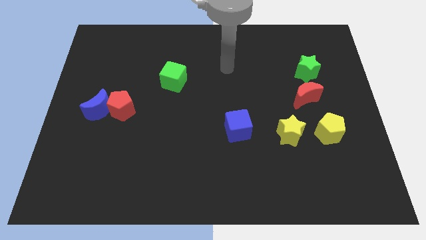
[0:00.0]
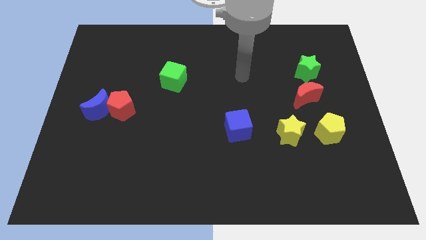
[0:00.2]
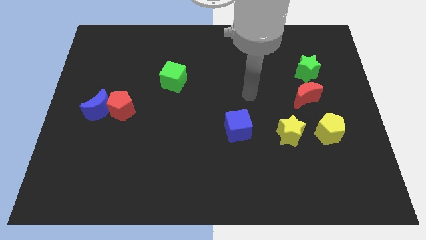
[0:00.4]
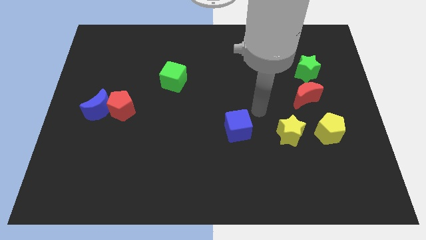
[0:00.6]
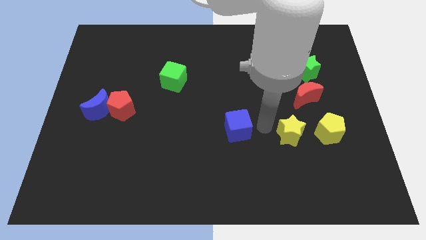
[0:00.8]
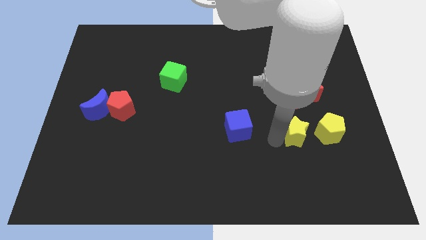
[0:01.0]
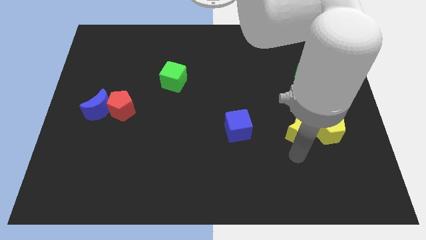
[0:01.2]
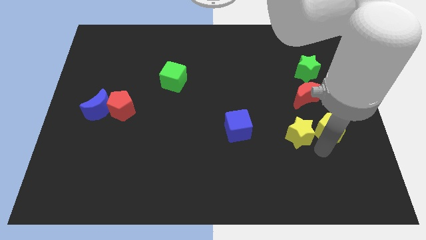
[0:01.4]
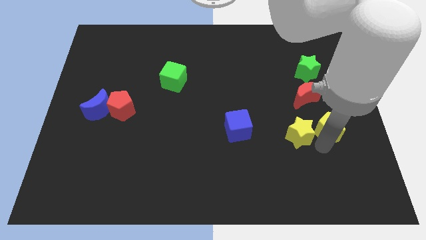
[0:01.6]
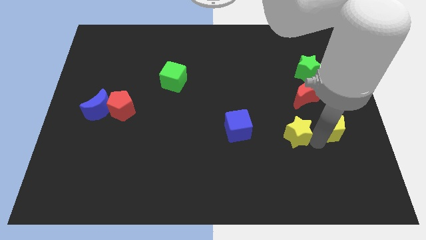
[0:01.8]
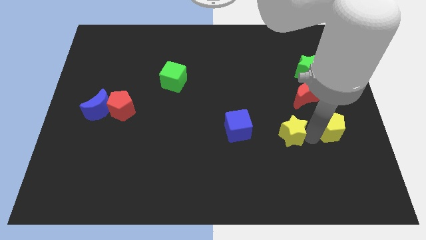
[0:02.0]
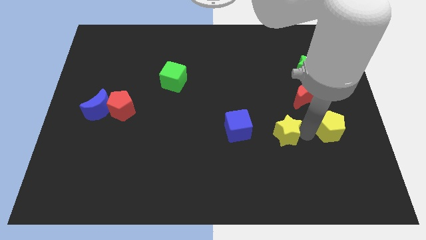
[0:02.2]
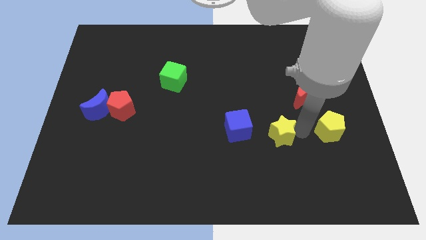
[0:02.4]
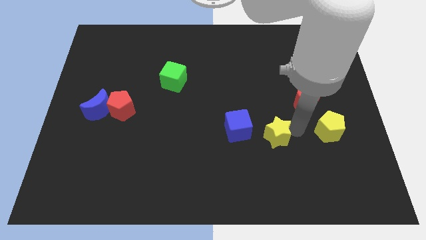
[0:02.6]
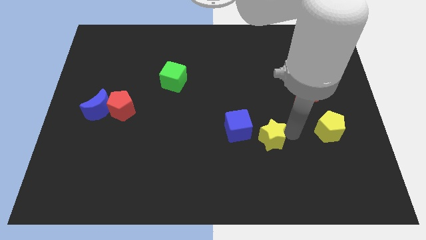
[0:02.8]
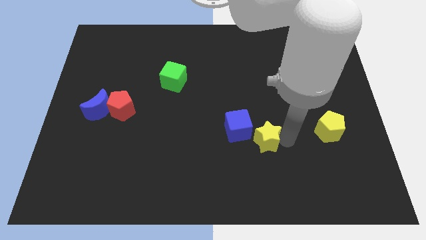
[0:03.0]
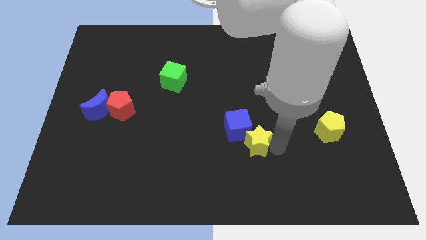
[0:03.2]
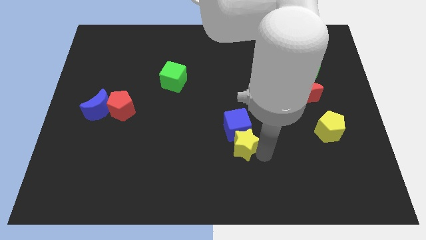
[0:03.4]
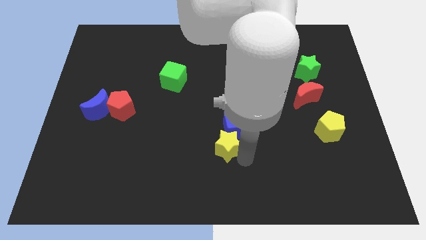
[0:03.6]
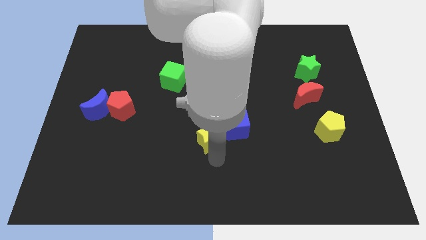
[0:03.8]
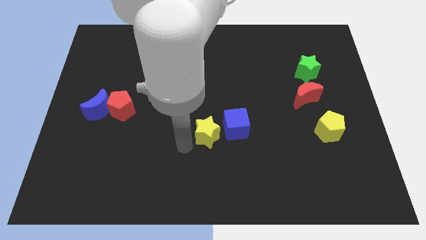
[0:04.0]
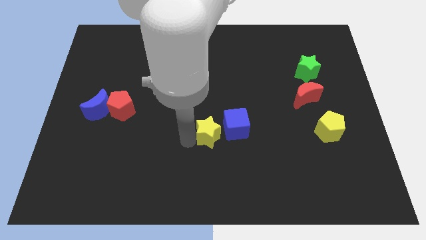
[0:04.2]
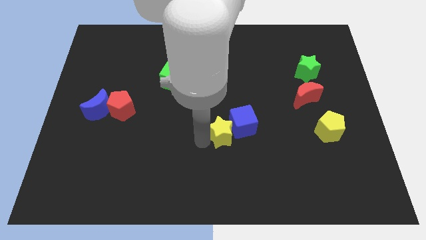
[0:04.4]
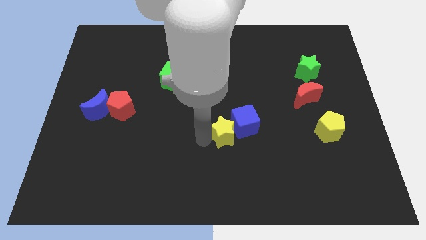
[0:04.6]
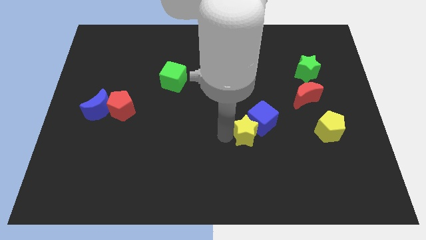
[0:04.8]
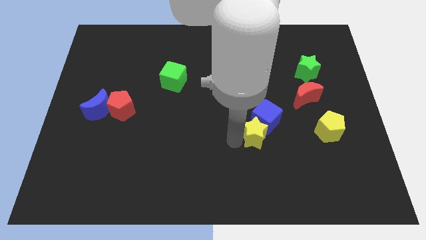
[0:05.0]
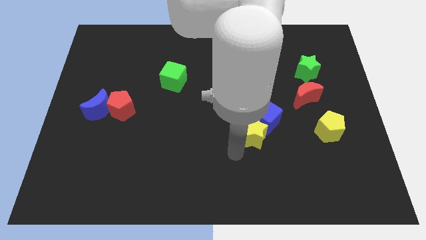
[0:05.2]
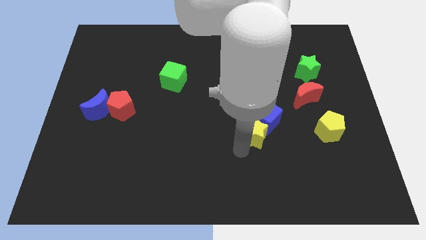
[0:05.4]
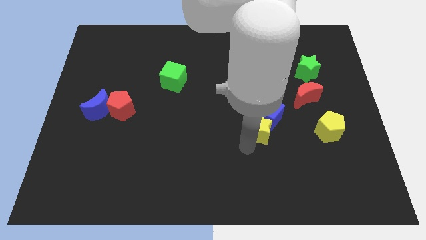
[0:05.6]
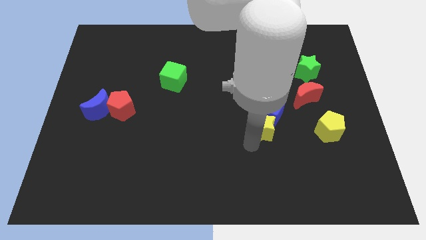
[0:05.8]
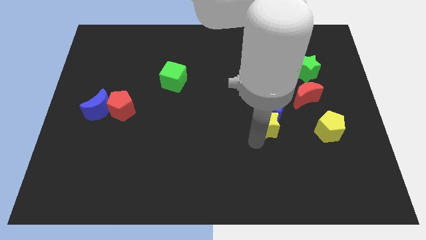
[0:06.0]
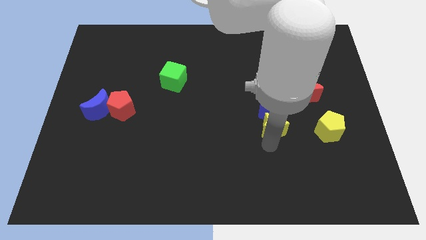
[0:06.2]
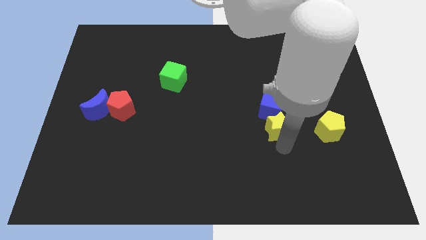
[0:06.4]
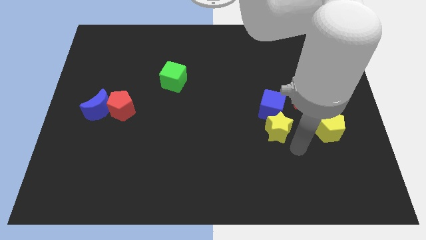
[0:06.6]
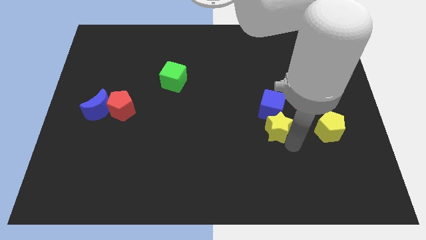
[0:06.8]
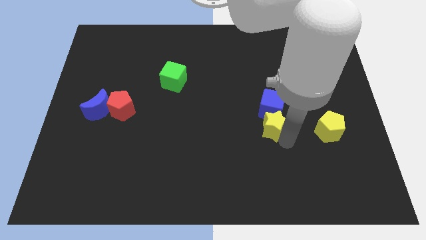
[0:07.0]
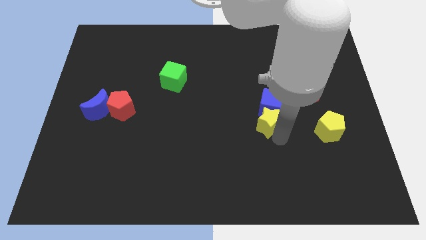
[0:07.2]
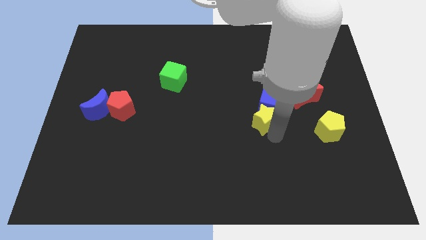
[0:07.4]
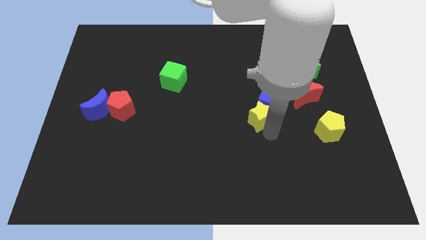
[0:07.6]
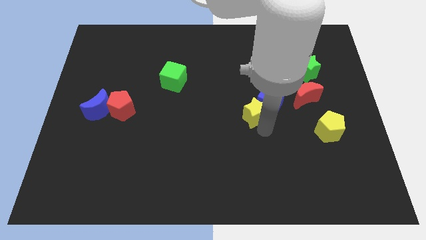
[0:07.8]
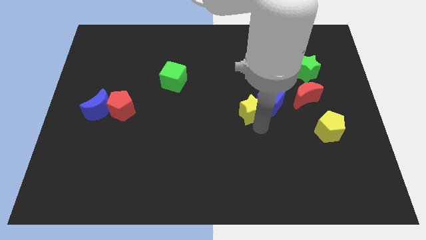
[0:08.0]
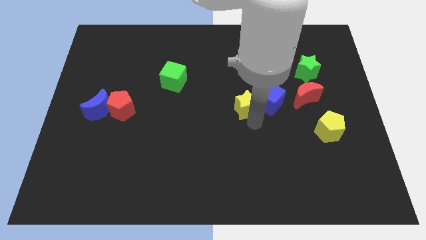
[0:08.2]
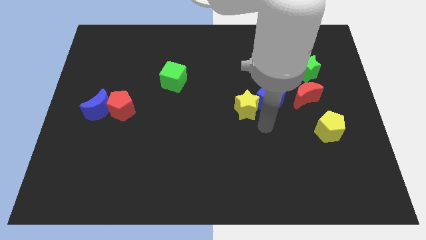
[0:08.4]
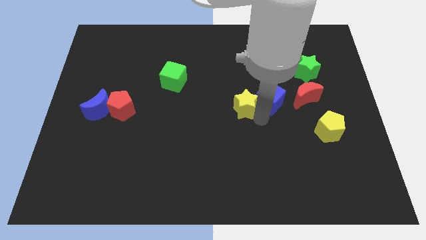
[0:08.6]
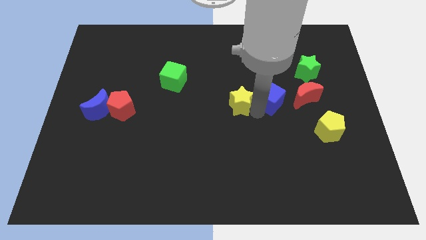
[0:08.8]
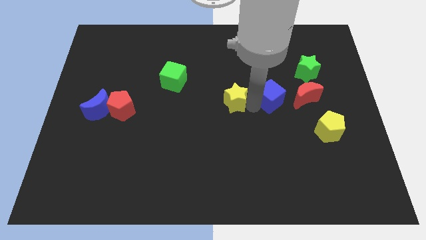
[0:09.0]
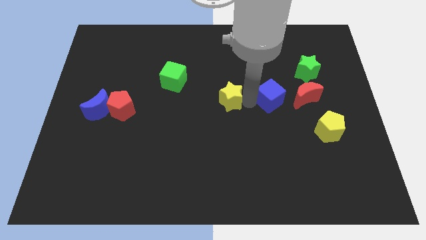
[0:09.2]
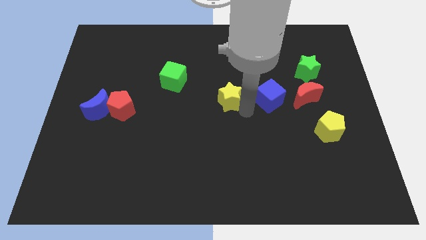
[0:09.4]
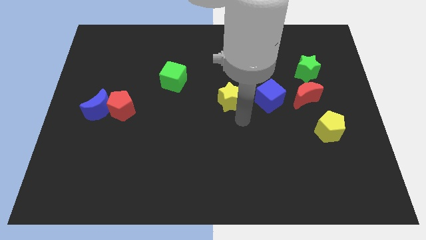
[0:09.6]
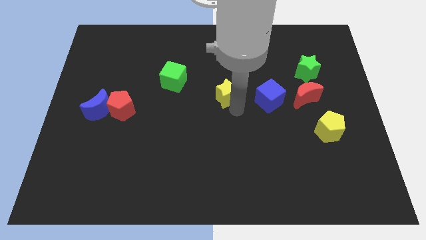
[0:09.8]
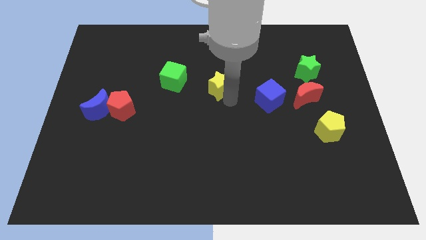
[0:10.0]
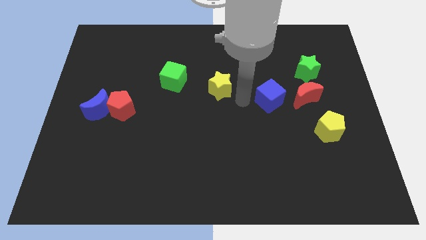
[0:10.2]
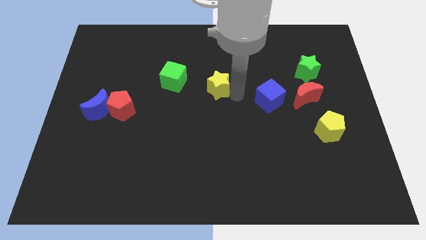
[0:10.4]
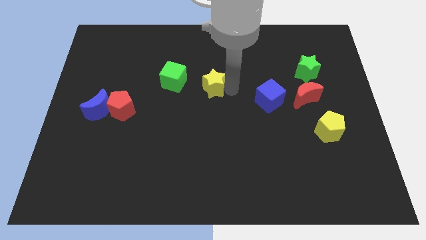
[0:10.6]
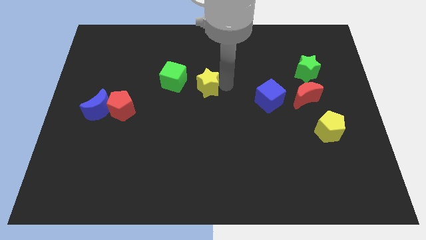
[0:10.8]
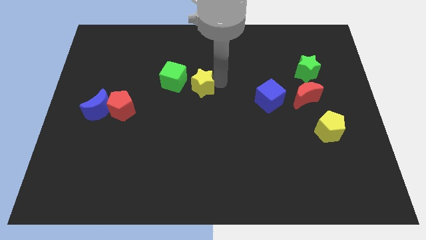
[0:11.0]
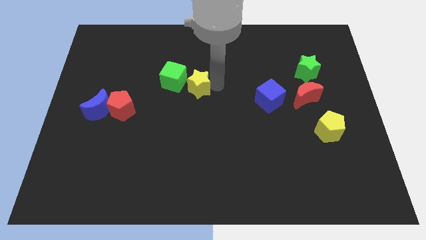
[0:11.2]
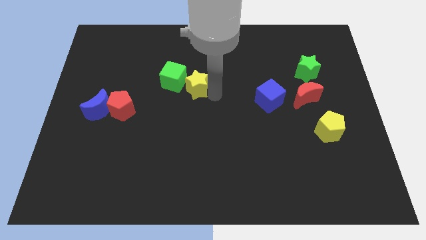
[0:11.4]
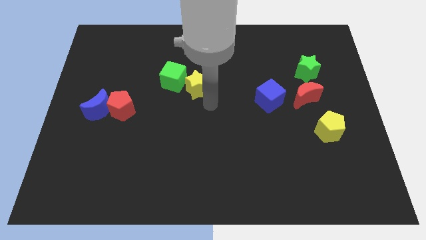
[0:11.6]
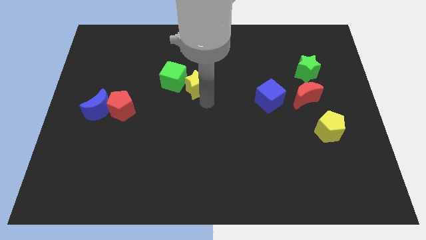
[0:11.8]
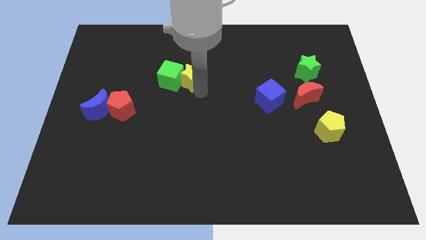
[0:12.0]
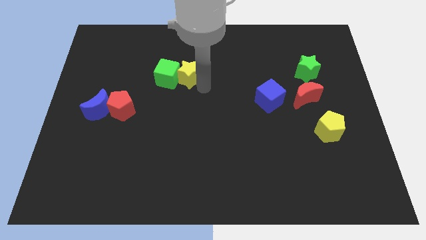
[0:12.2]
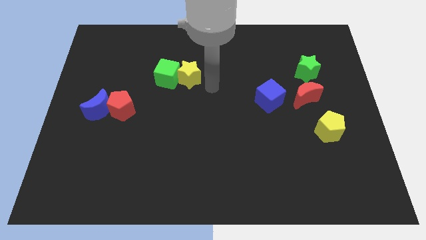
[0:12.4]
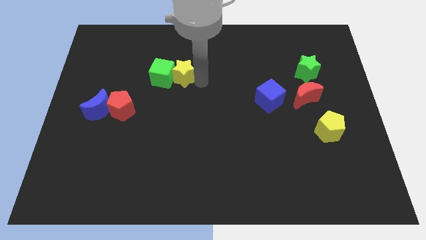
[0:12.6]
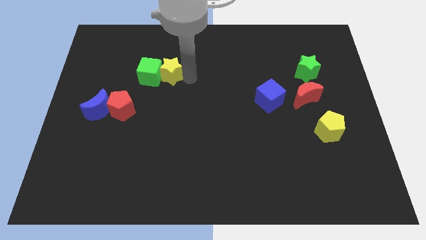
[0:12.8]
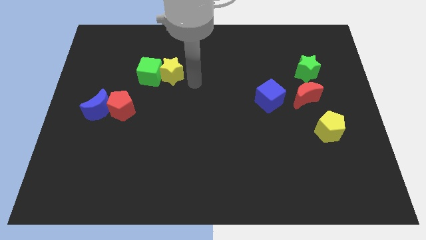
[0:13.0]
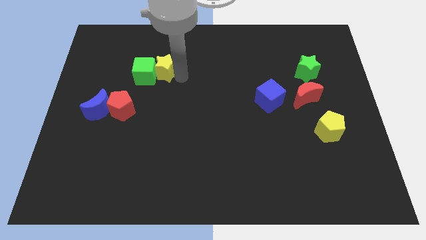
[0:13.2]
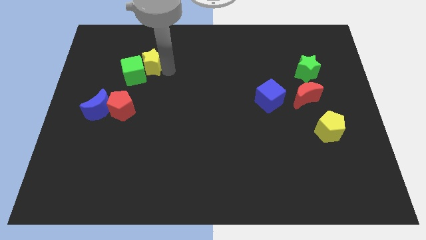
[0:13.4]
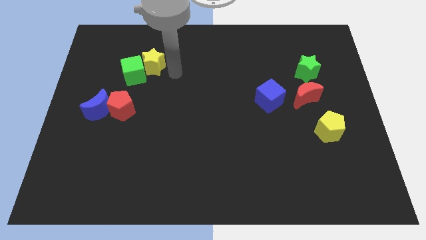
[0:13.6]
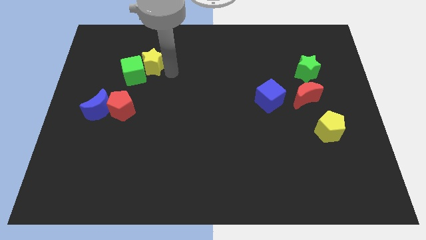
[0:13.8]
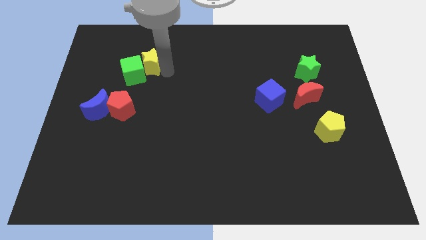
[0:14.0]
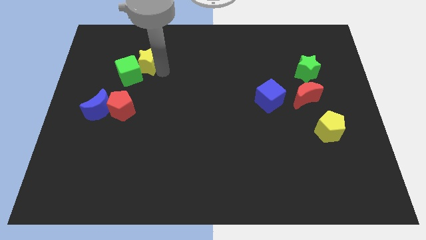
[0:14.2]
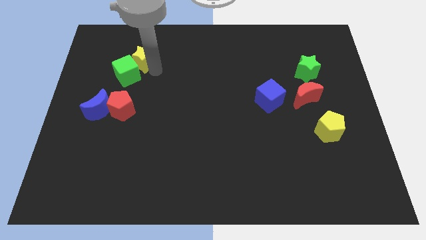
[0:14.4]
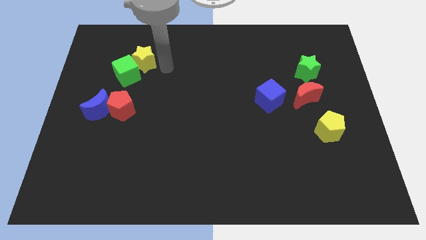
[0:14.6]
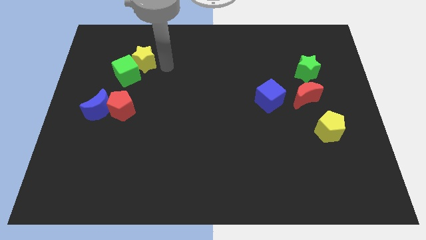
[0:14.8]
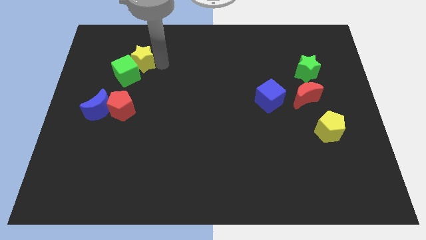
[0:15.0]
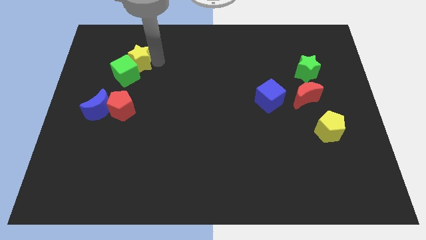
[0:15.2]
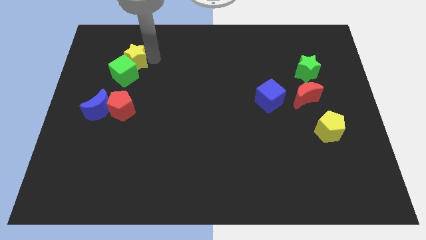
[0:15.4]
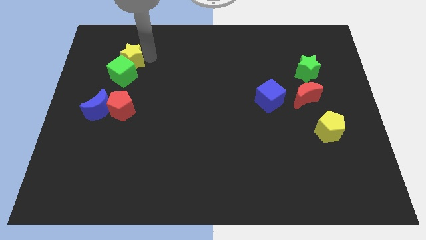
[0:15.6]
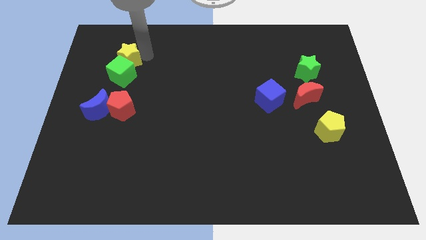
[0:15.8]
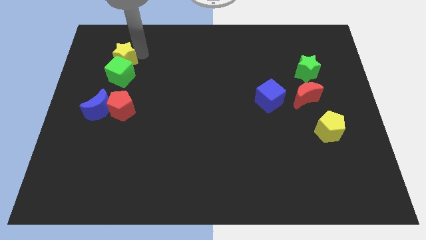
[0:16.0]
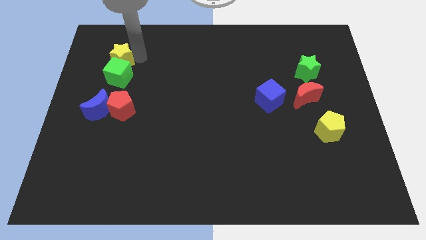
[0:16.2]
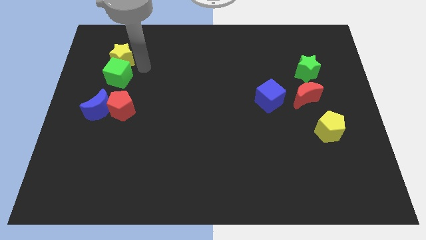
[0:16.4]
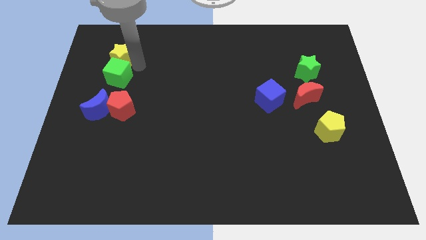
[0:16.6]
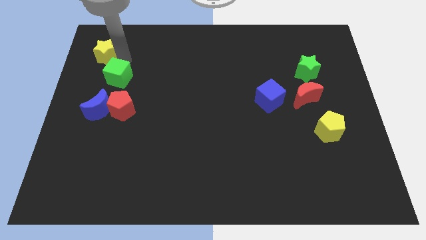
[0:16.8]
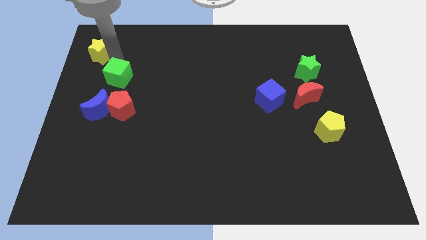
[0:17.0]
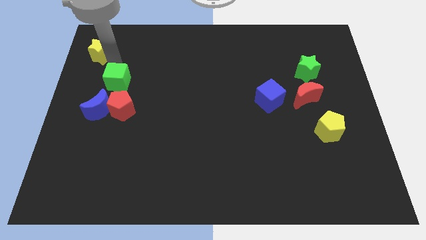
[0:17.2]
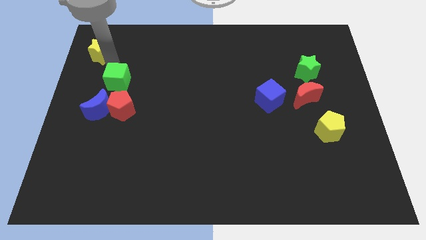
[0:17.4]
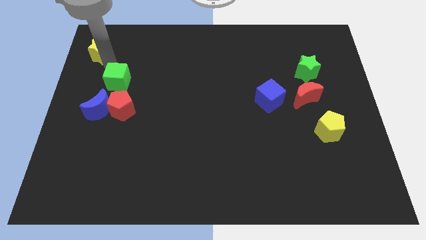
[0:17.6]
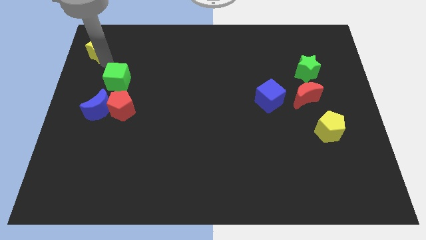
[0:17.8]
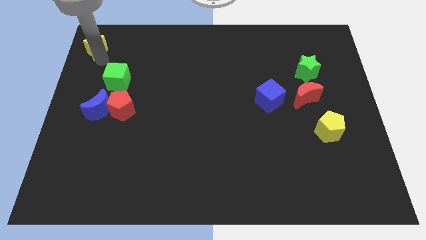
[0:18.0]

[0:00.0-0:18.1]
slide the yellow star to the top left of the board
